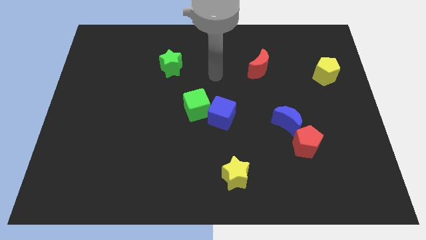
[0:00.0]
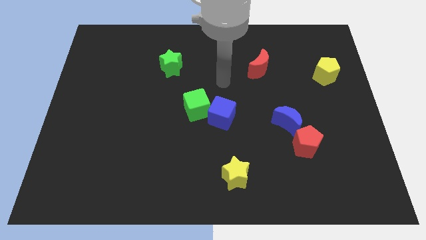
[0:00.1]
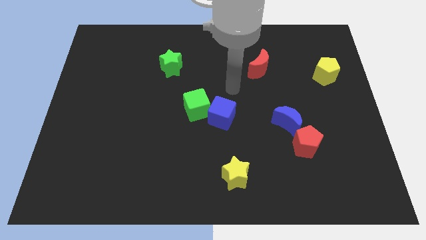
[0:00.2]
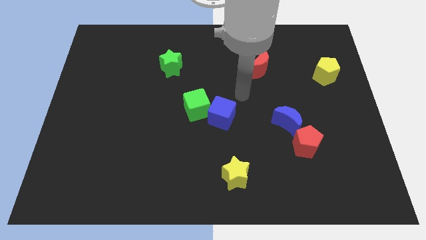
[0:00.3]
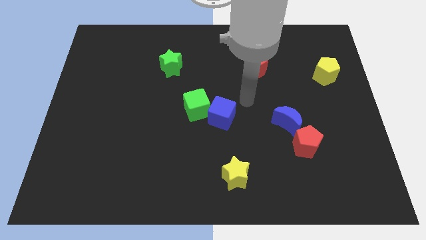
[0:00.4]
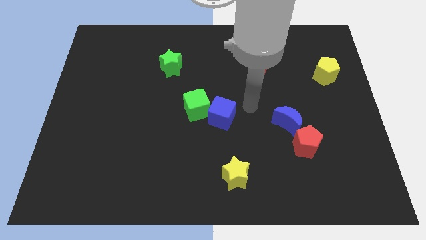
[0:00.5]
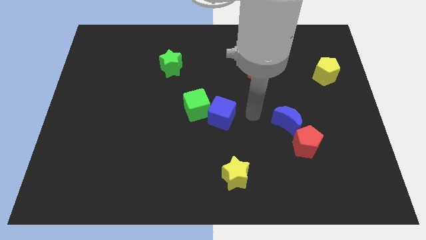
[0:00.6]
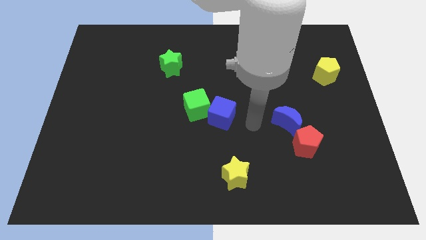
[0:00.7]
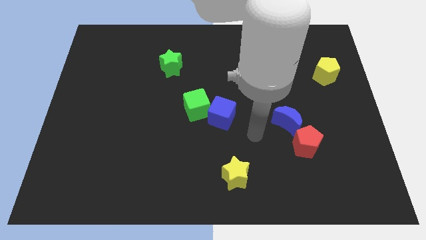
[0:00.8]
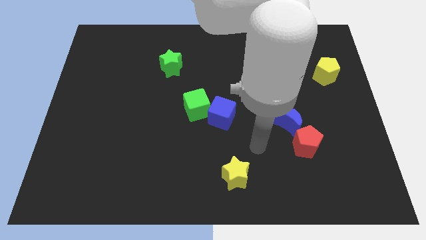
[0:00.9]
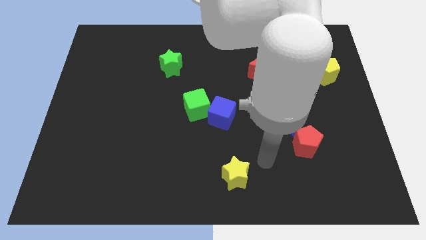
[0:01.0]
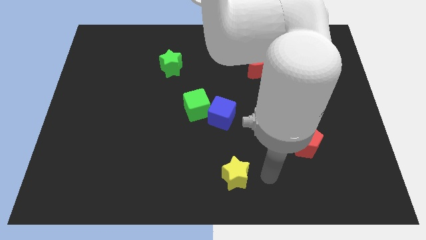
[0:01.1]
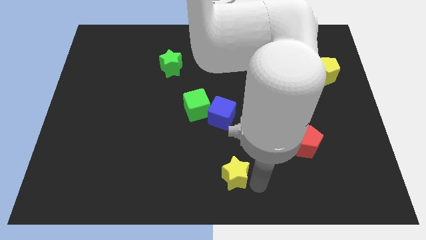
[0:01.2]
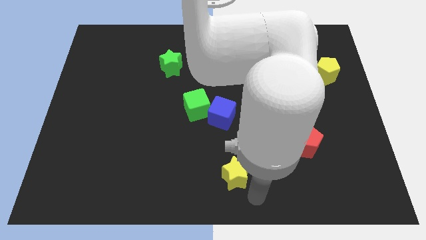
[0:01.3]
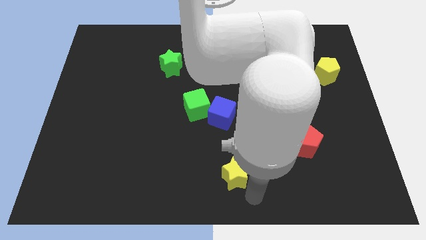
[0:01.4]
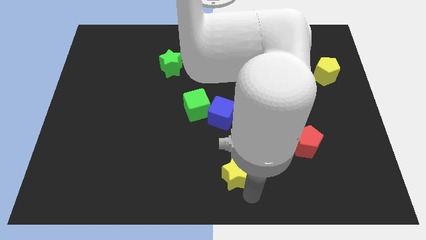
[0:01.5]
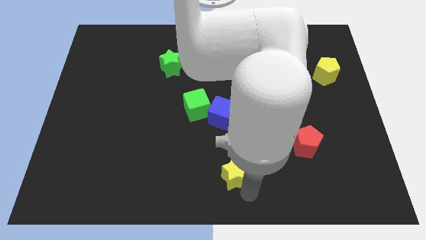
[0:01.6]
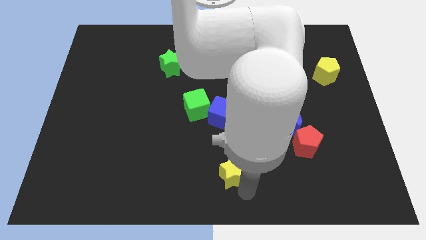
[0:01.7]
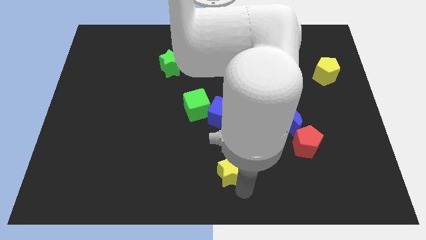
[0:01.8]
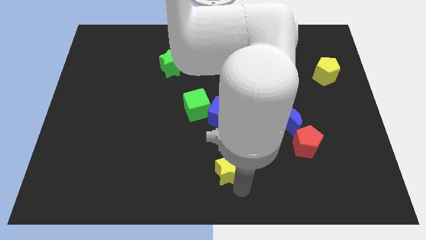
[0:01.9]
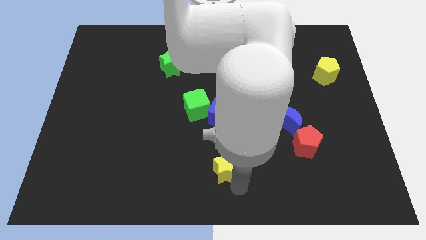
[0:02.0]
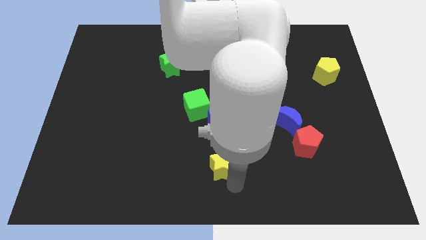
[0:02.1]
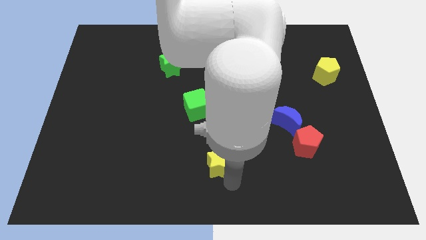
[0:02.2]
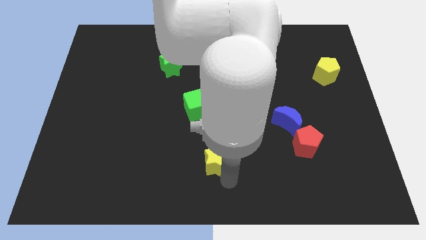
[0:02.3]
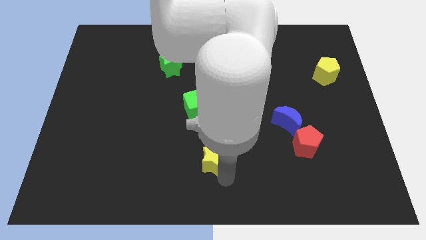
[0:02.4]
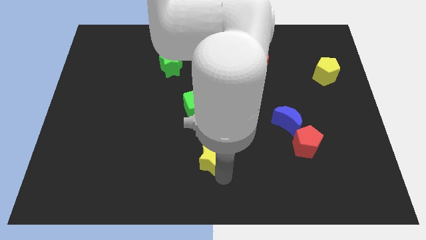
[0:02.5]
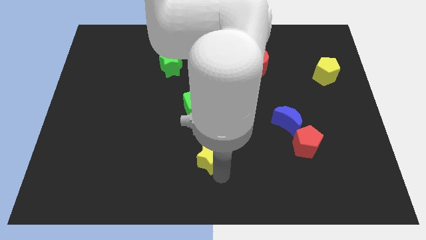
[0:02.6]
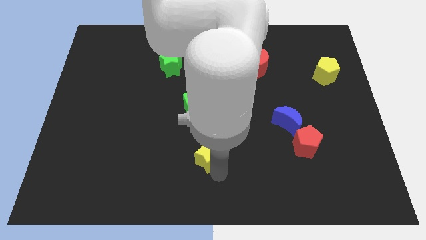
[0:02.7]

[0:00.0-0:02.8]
slide the yellow star up and left slightly

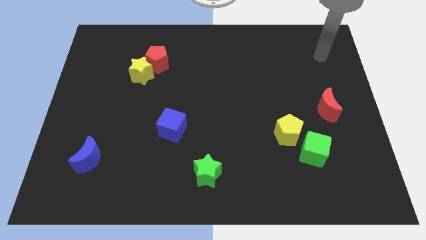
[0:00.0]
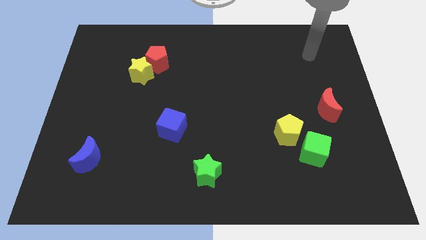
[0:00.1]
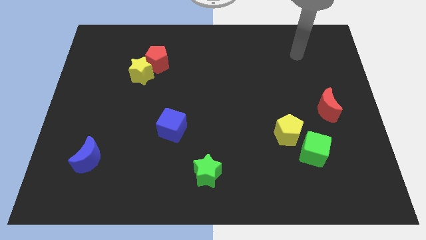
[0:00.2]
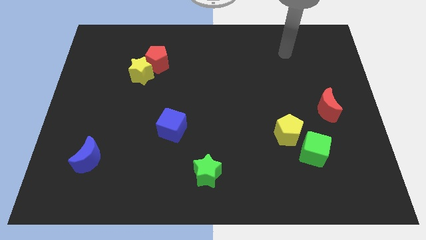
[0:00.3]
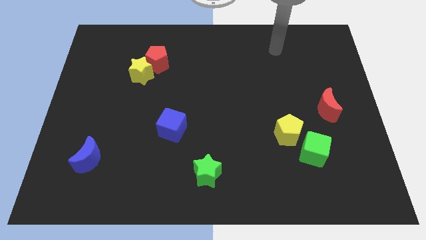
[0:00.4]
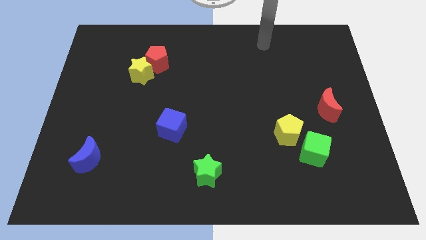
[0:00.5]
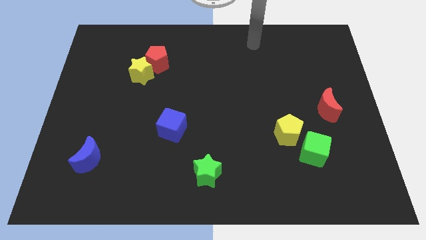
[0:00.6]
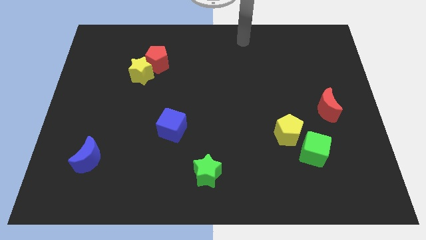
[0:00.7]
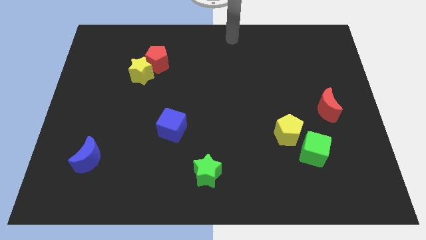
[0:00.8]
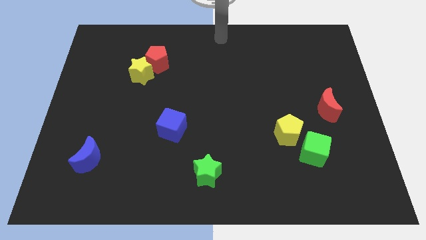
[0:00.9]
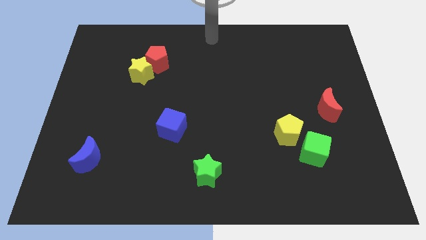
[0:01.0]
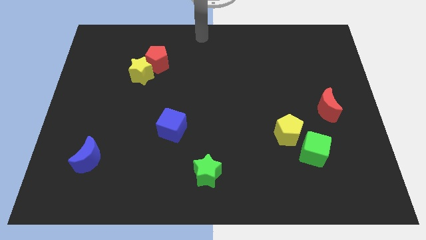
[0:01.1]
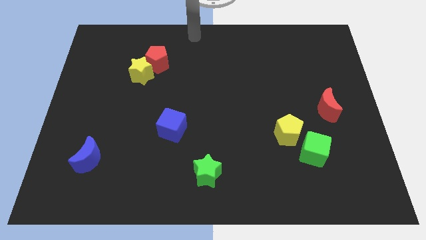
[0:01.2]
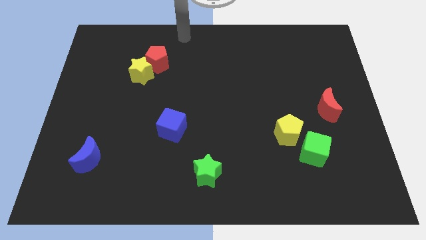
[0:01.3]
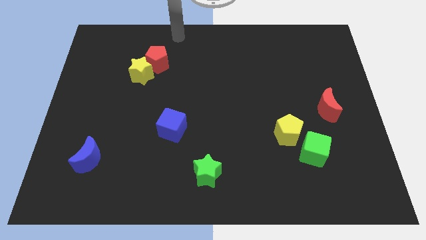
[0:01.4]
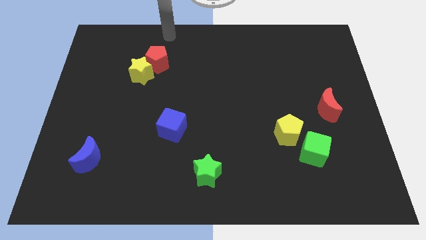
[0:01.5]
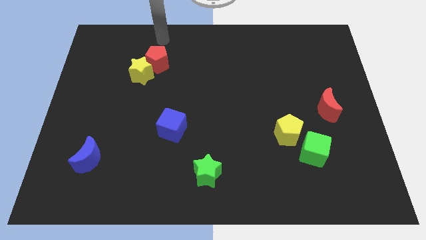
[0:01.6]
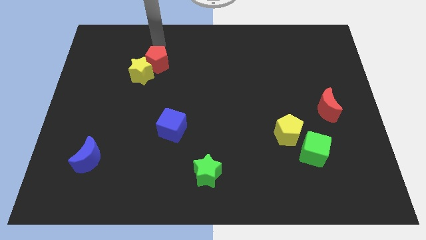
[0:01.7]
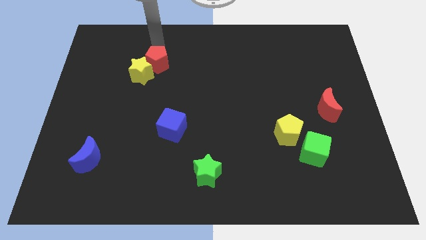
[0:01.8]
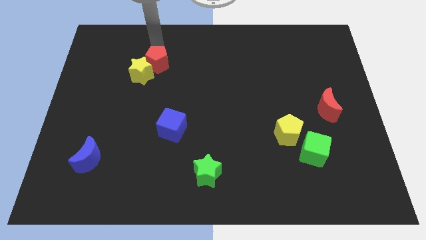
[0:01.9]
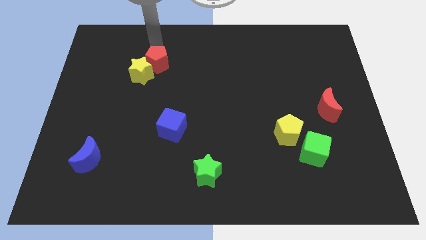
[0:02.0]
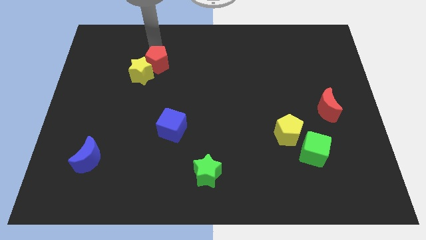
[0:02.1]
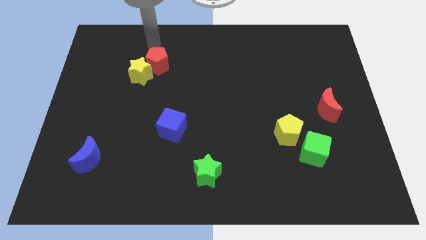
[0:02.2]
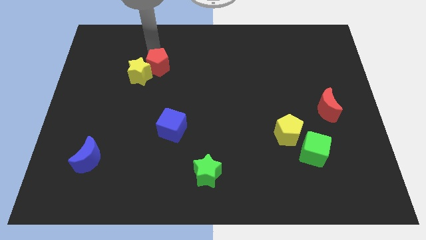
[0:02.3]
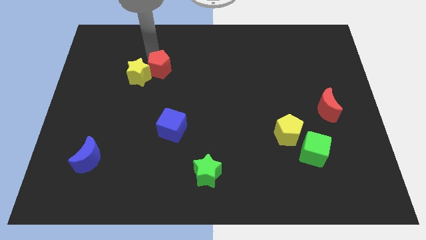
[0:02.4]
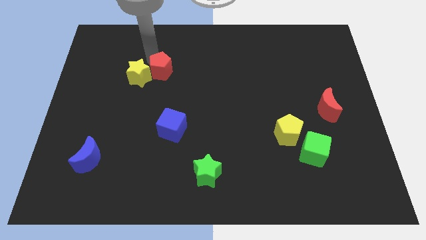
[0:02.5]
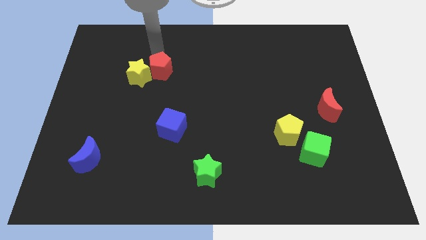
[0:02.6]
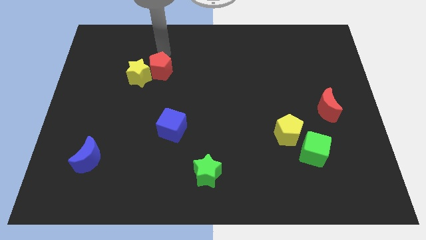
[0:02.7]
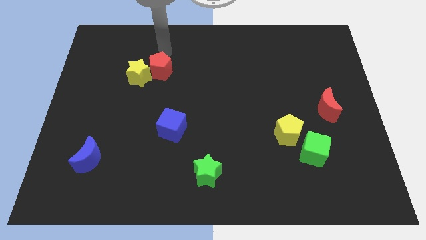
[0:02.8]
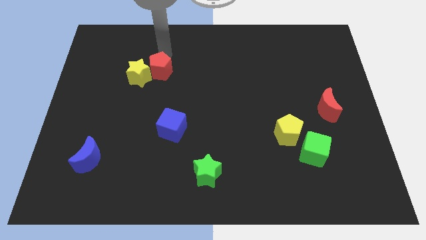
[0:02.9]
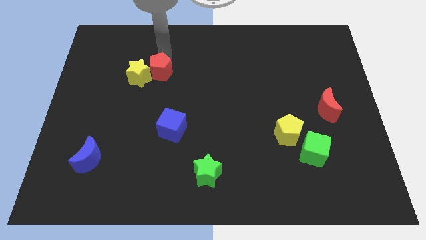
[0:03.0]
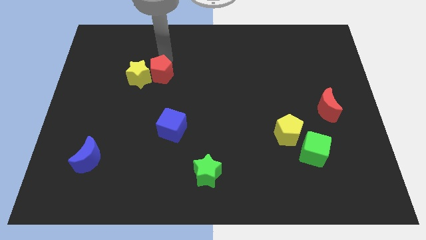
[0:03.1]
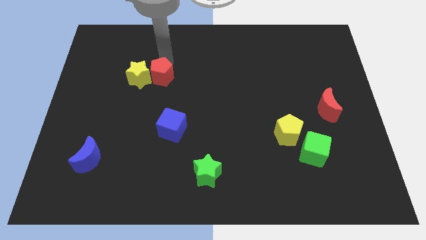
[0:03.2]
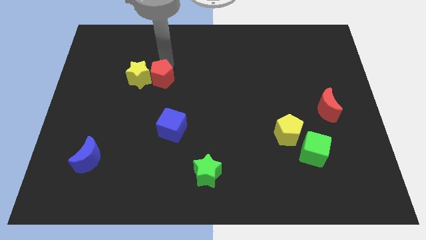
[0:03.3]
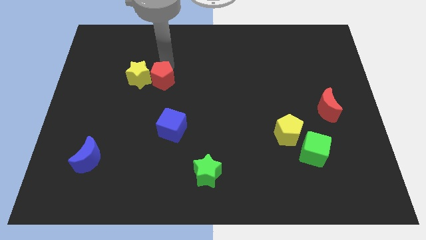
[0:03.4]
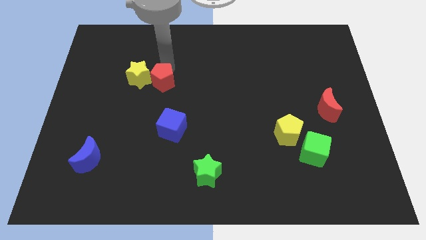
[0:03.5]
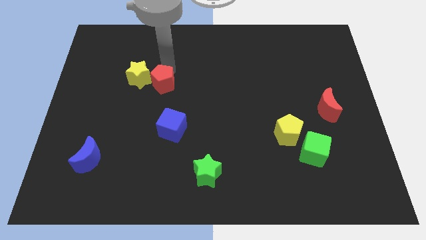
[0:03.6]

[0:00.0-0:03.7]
slide the red pentagon down a bit

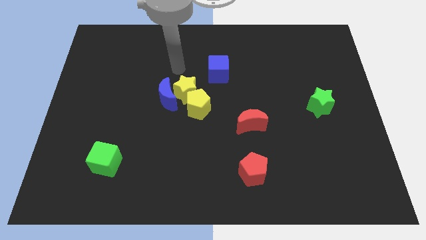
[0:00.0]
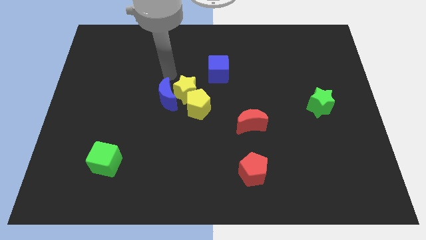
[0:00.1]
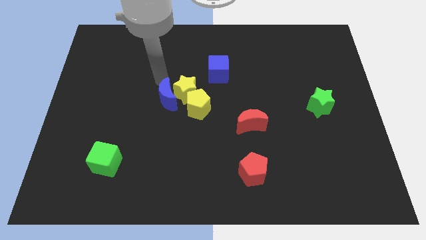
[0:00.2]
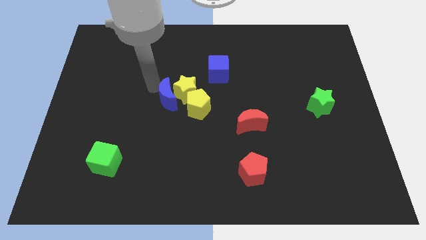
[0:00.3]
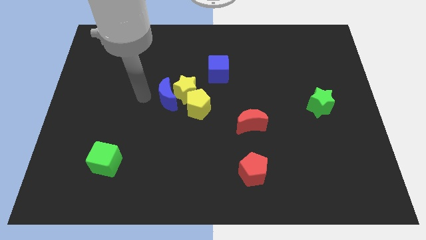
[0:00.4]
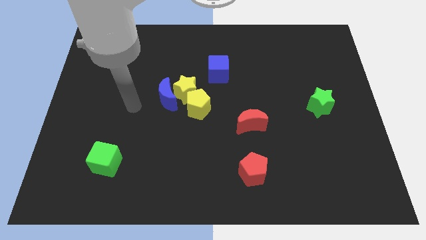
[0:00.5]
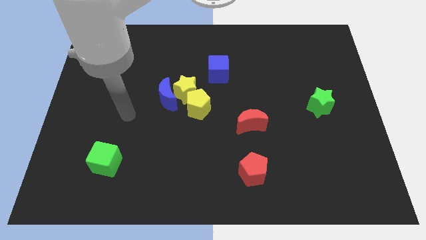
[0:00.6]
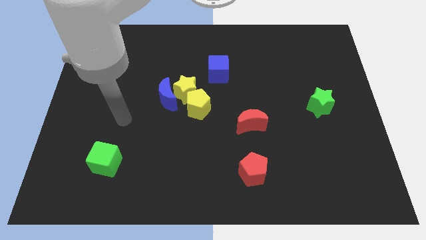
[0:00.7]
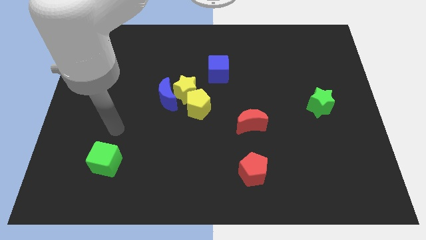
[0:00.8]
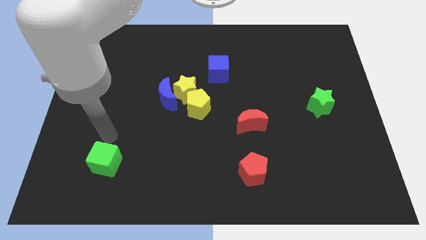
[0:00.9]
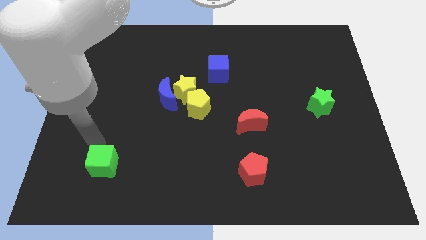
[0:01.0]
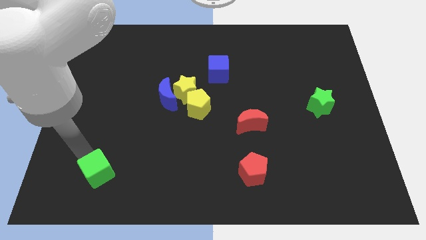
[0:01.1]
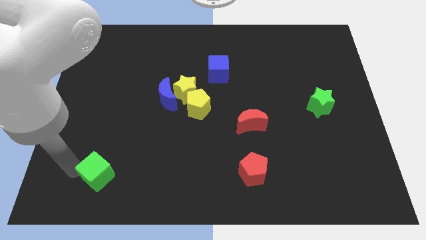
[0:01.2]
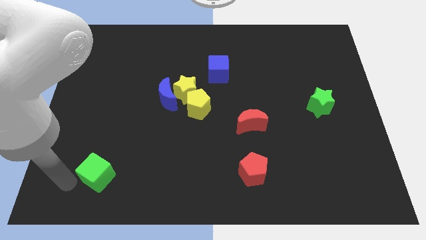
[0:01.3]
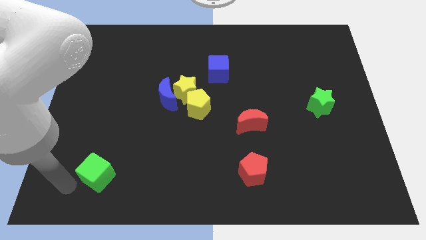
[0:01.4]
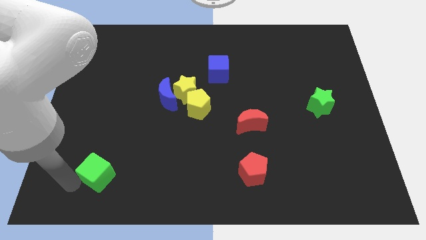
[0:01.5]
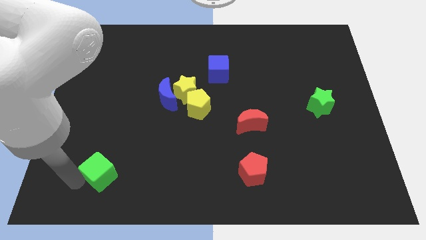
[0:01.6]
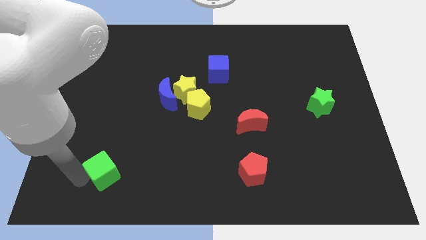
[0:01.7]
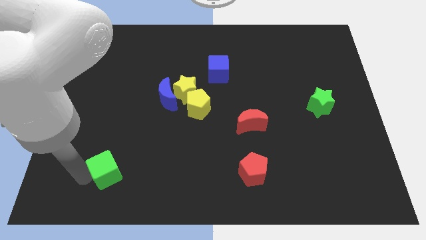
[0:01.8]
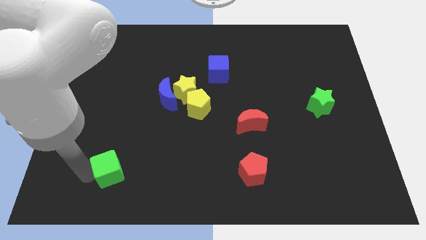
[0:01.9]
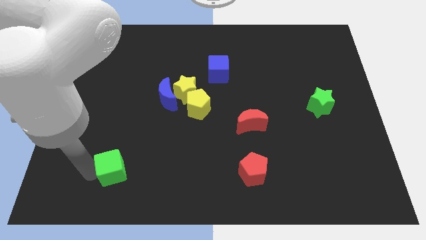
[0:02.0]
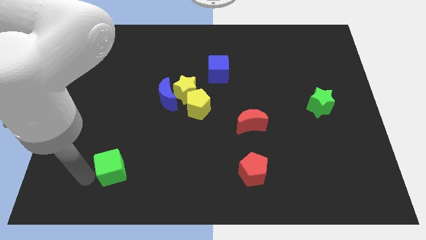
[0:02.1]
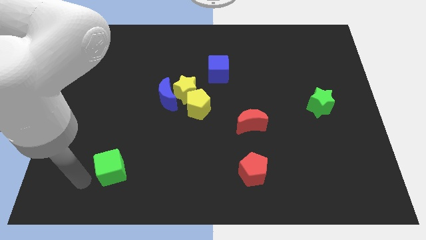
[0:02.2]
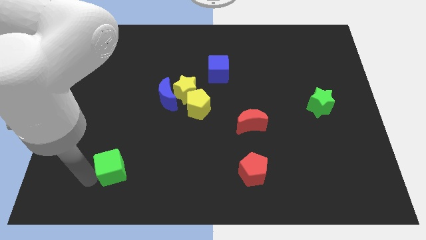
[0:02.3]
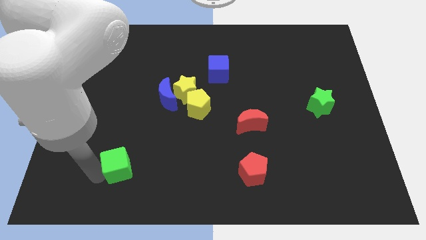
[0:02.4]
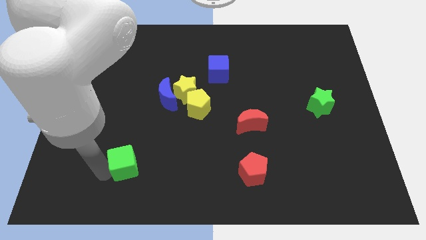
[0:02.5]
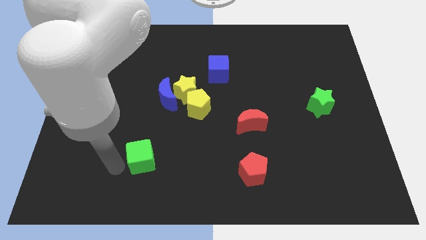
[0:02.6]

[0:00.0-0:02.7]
slide the green cube a bit right
